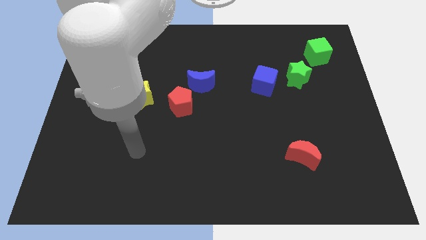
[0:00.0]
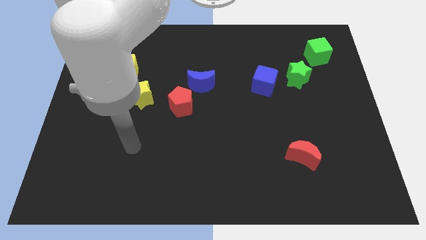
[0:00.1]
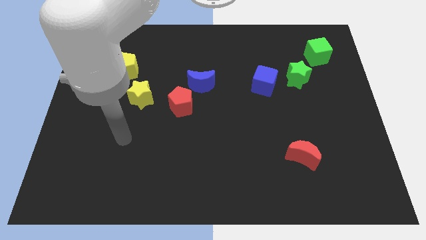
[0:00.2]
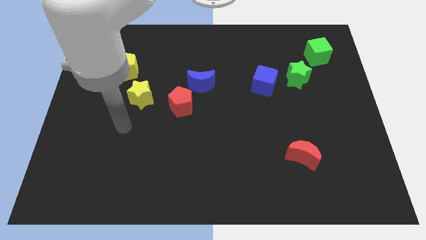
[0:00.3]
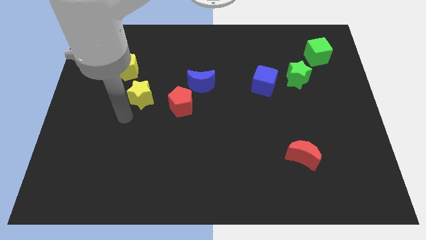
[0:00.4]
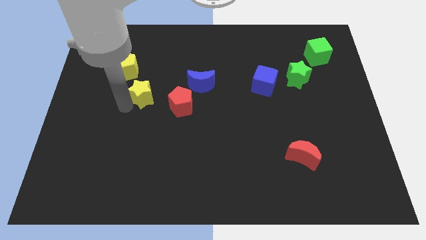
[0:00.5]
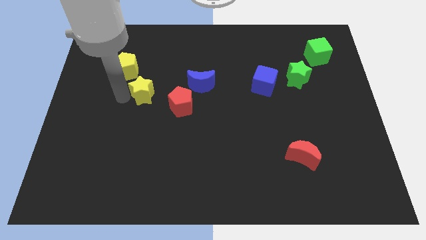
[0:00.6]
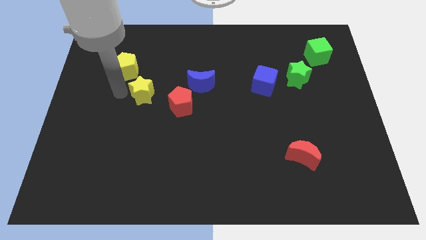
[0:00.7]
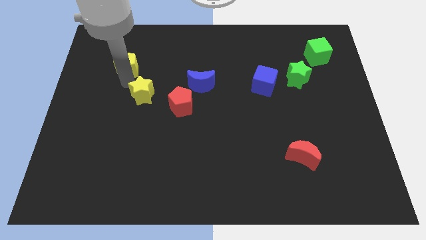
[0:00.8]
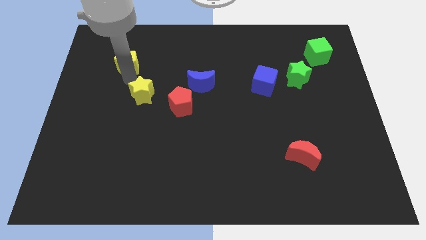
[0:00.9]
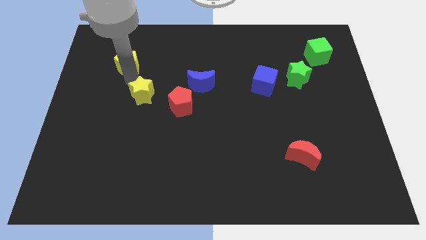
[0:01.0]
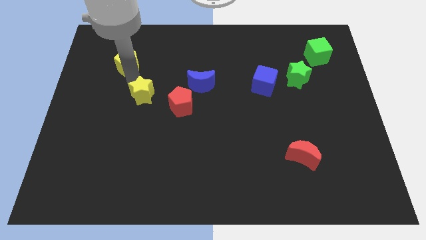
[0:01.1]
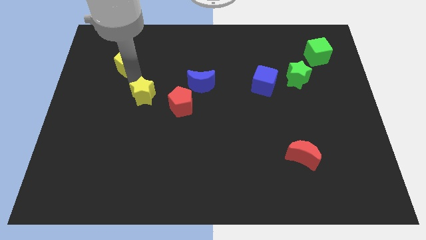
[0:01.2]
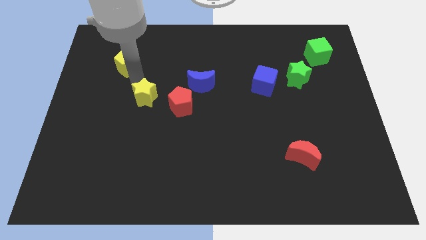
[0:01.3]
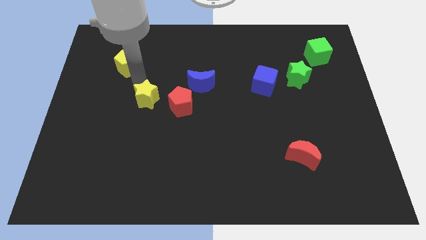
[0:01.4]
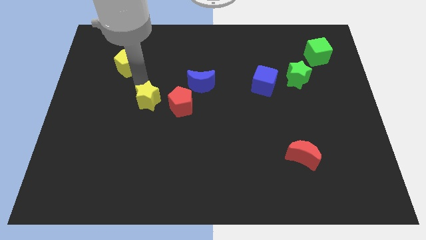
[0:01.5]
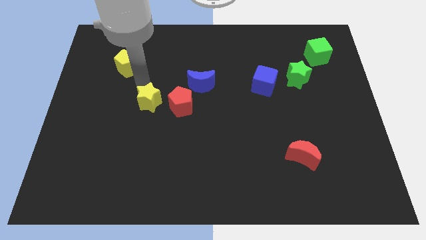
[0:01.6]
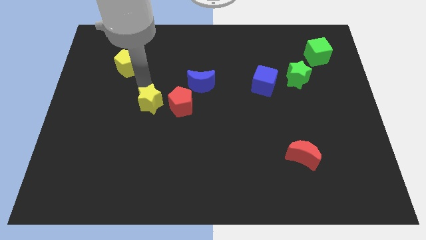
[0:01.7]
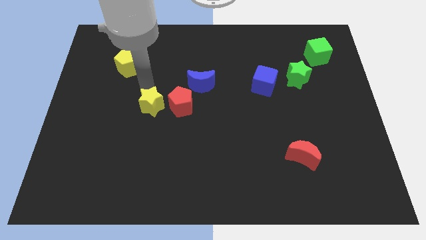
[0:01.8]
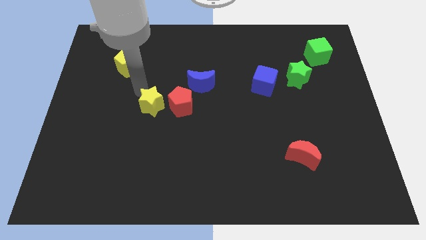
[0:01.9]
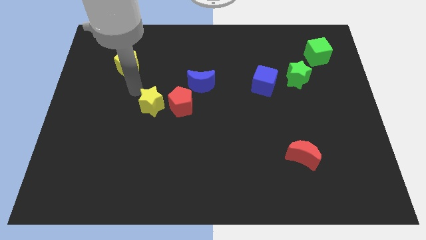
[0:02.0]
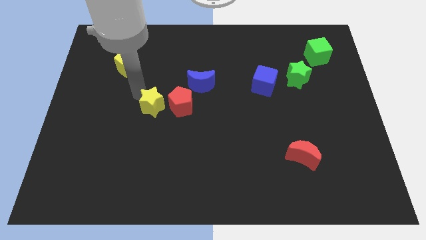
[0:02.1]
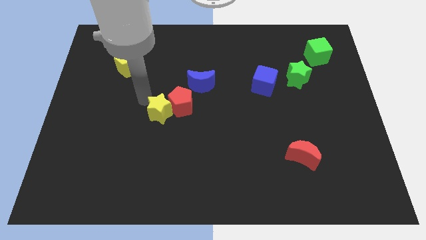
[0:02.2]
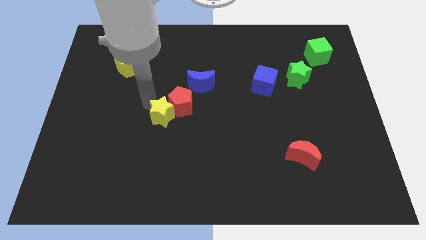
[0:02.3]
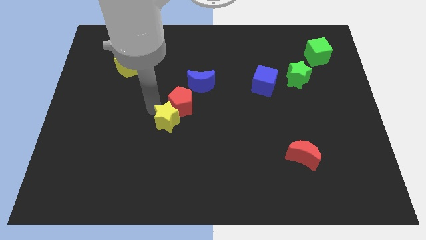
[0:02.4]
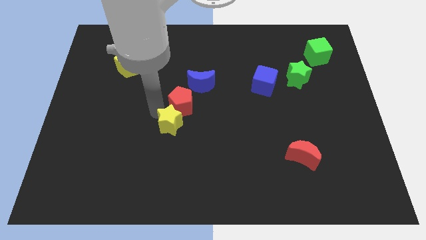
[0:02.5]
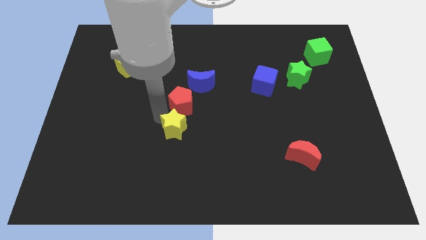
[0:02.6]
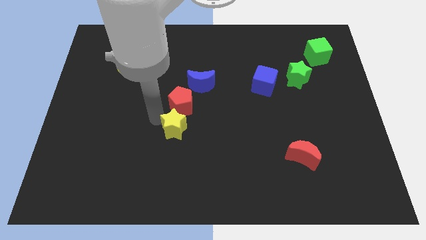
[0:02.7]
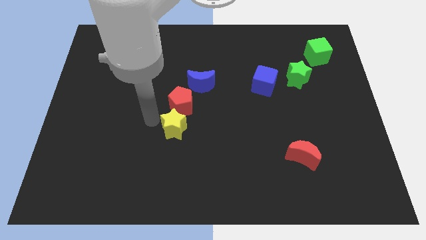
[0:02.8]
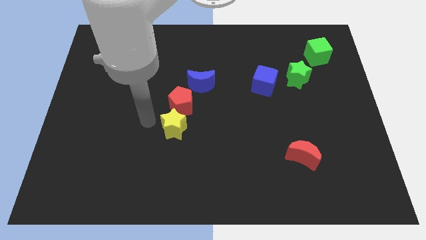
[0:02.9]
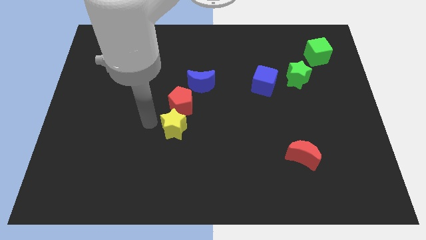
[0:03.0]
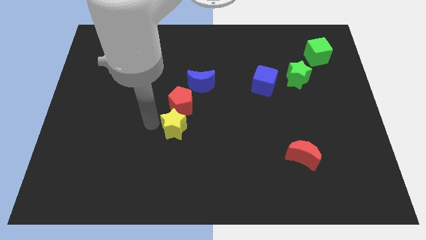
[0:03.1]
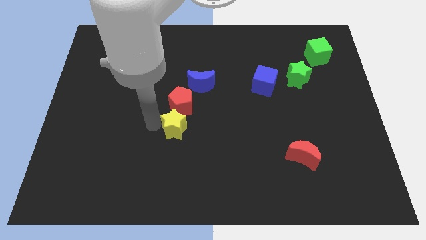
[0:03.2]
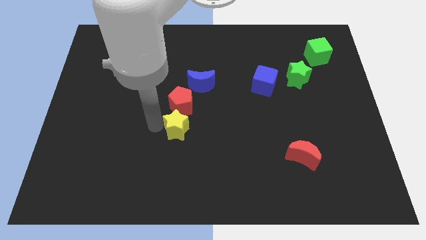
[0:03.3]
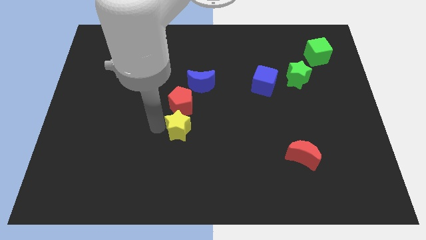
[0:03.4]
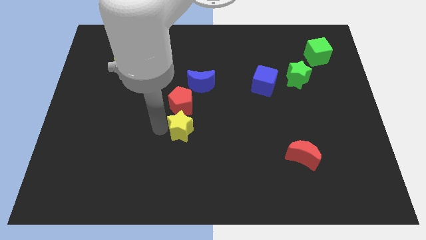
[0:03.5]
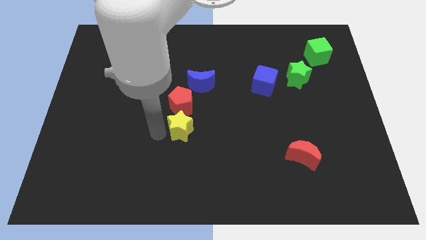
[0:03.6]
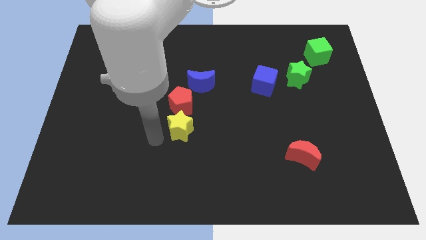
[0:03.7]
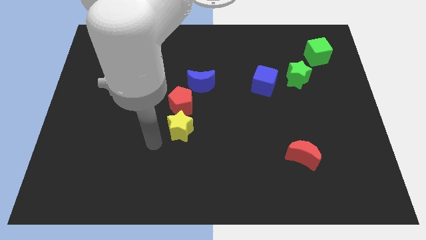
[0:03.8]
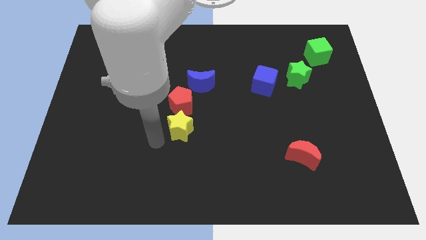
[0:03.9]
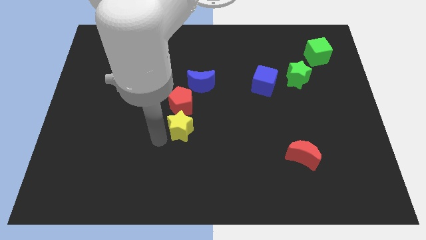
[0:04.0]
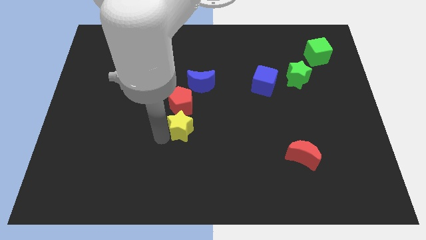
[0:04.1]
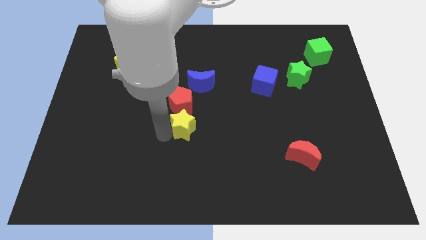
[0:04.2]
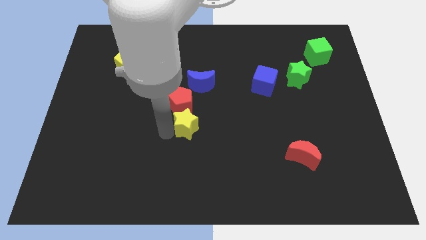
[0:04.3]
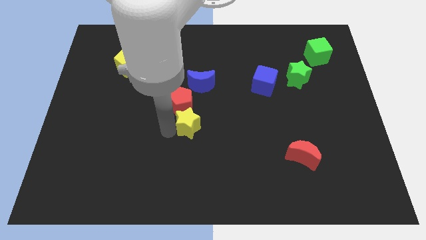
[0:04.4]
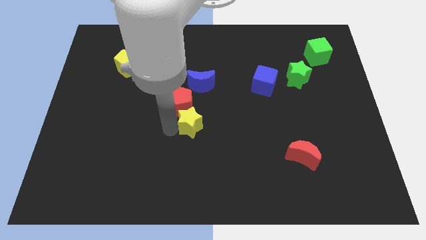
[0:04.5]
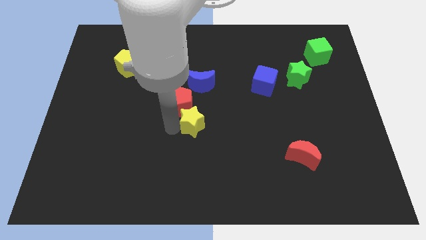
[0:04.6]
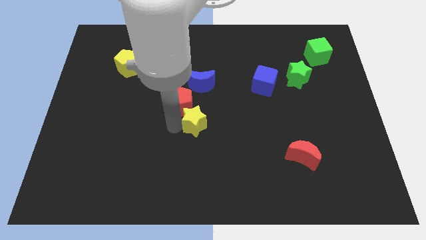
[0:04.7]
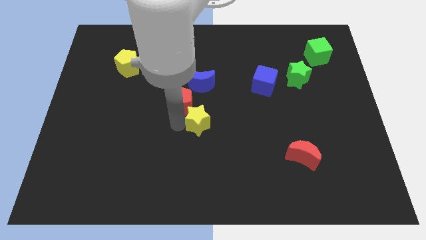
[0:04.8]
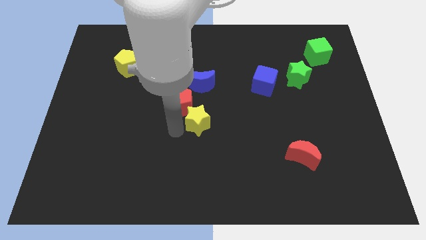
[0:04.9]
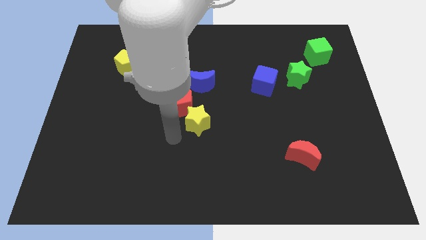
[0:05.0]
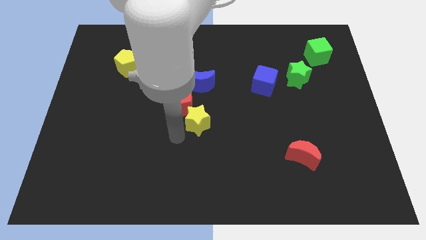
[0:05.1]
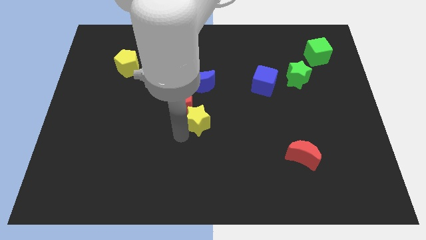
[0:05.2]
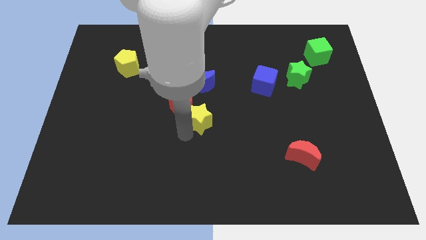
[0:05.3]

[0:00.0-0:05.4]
move the yellow star right of the red pentagon

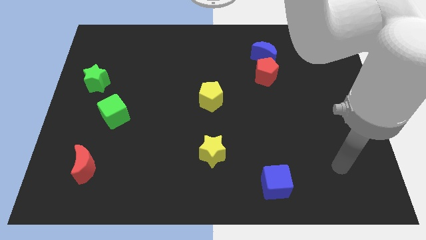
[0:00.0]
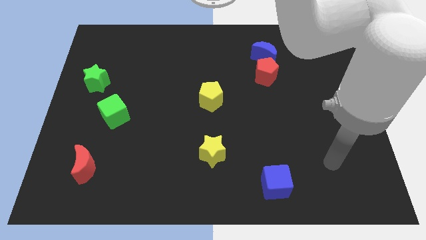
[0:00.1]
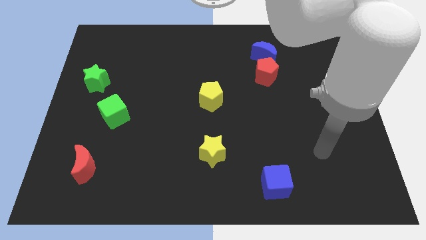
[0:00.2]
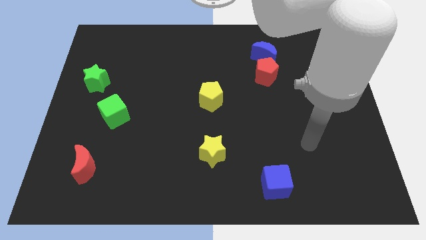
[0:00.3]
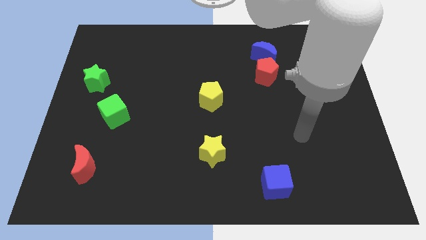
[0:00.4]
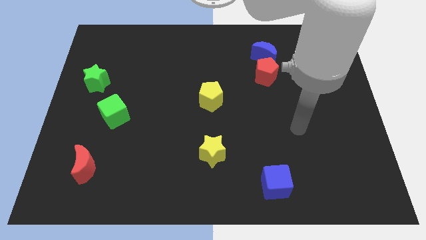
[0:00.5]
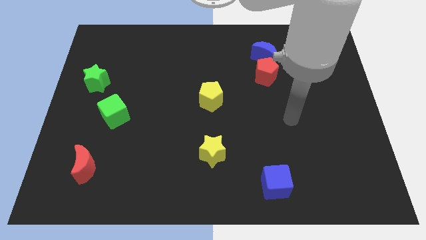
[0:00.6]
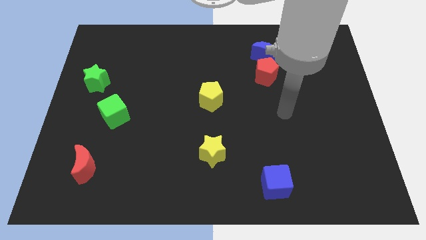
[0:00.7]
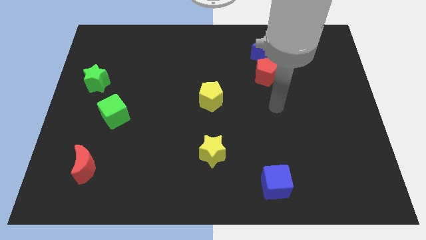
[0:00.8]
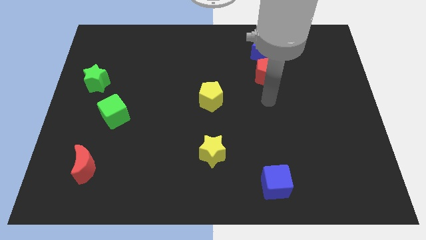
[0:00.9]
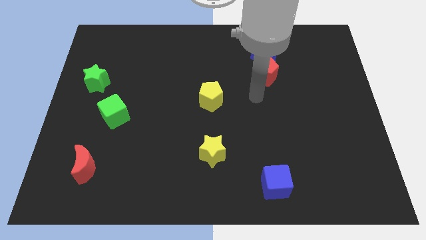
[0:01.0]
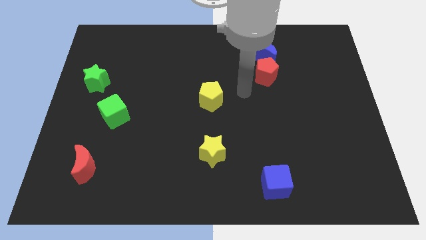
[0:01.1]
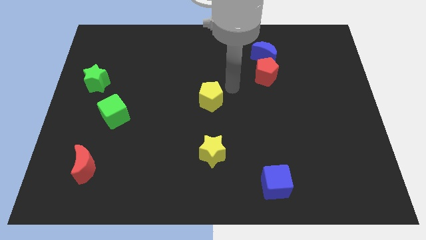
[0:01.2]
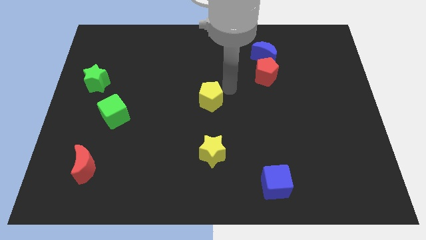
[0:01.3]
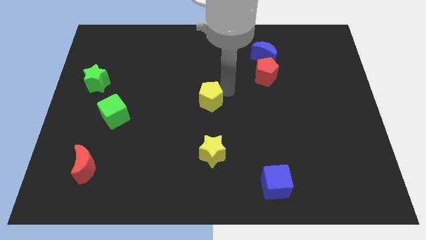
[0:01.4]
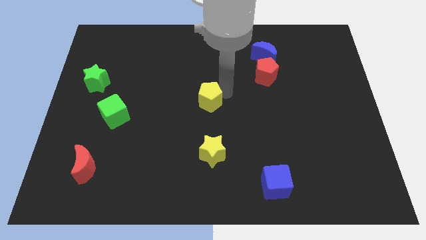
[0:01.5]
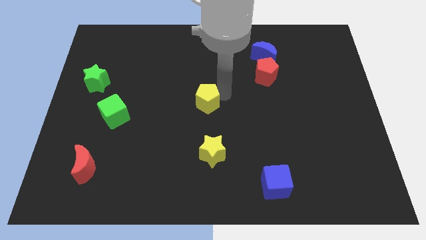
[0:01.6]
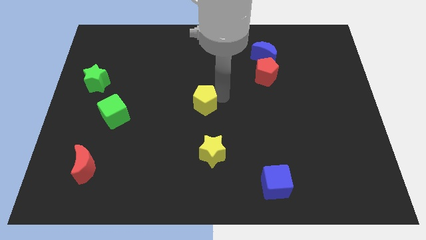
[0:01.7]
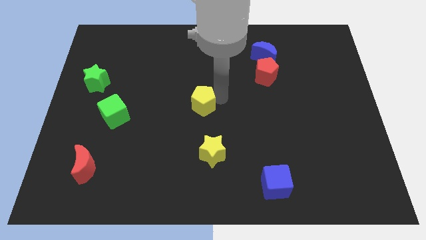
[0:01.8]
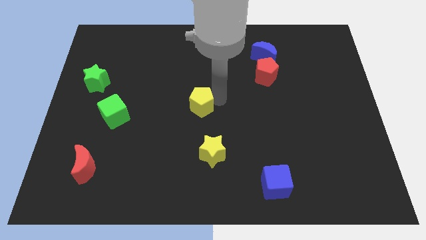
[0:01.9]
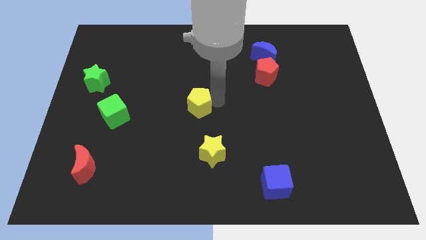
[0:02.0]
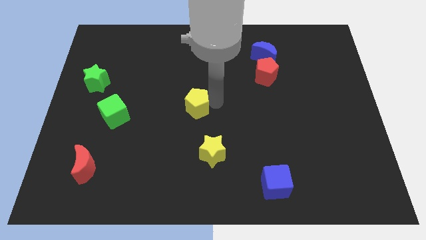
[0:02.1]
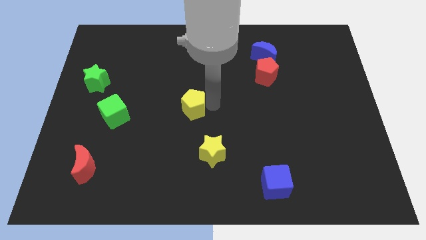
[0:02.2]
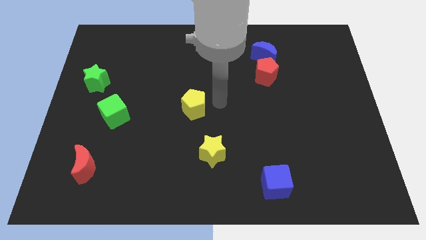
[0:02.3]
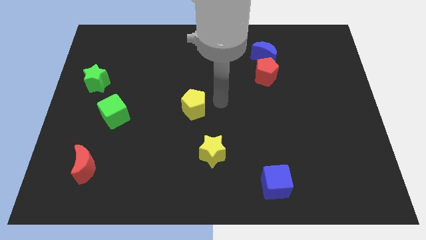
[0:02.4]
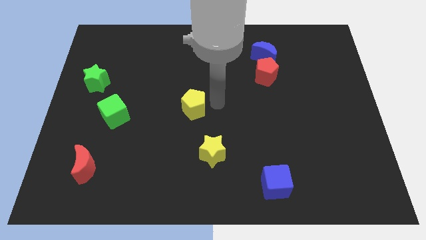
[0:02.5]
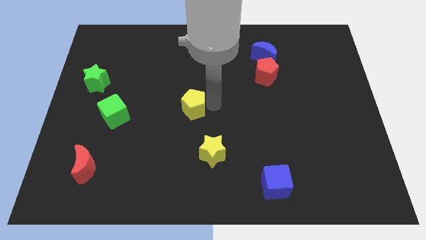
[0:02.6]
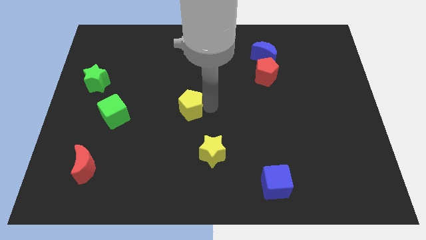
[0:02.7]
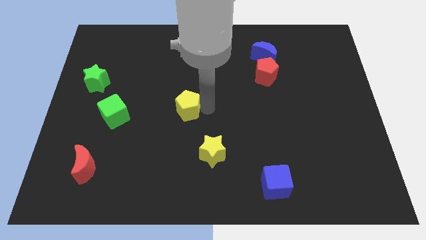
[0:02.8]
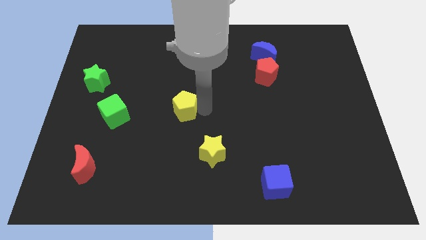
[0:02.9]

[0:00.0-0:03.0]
push the yellow pentagon just right of the green cube
